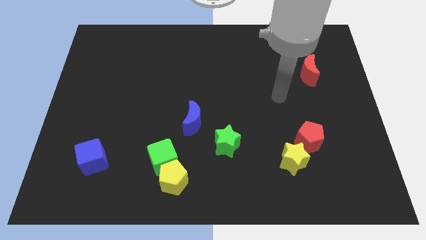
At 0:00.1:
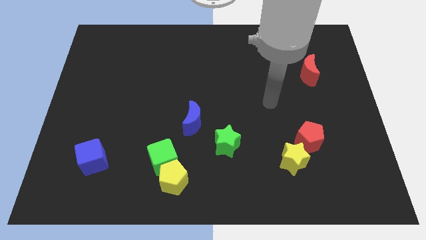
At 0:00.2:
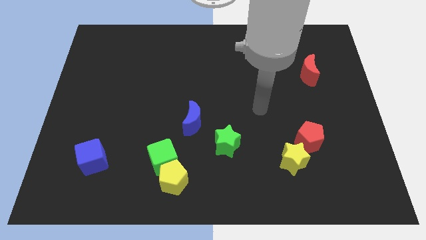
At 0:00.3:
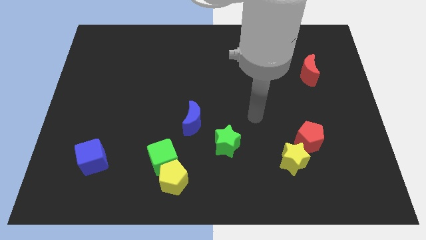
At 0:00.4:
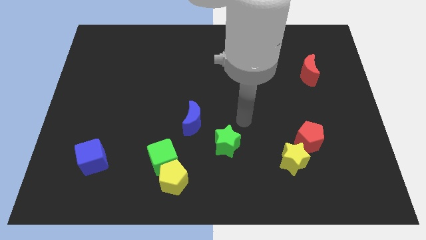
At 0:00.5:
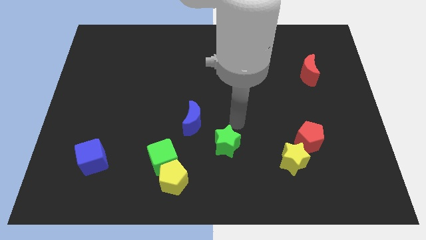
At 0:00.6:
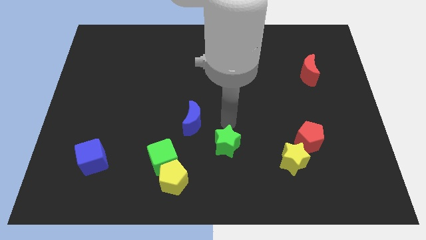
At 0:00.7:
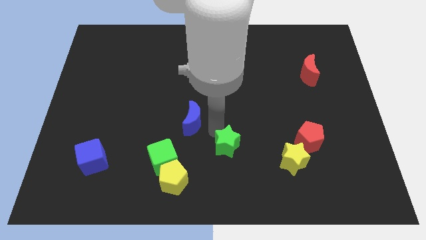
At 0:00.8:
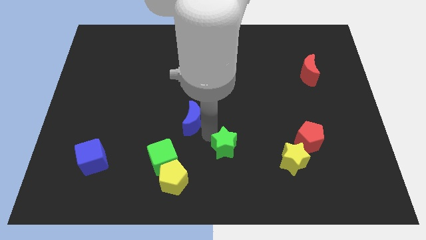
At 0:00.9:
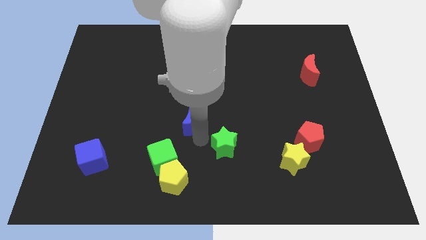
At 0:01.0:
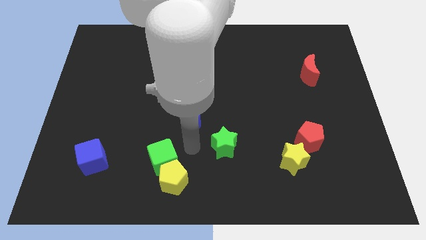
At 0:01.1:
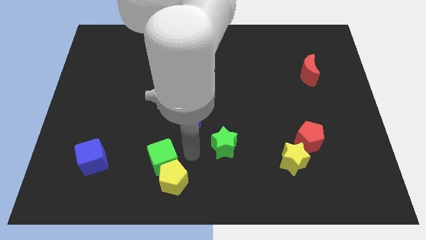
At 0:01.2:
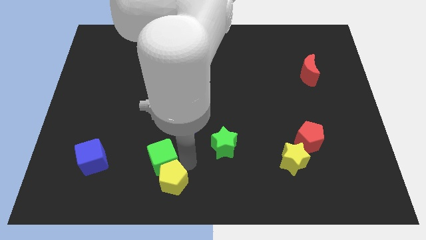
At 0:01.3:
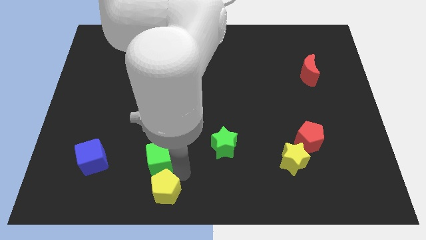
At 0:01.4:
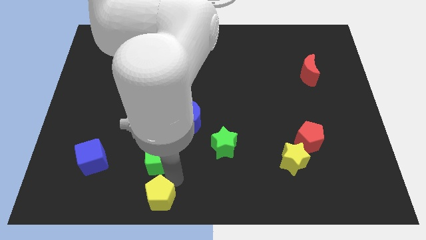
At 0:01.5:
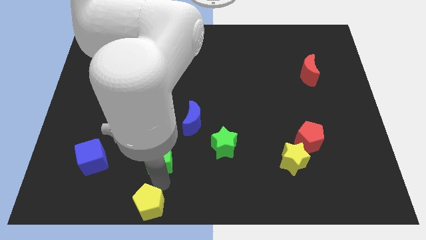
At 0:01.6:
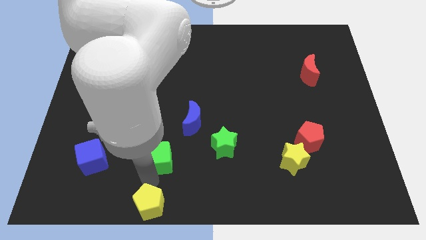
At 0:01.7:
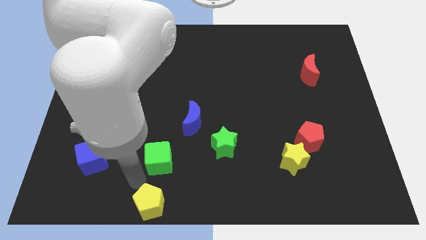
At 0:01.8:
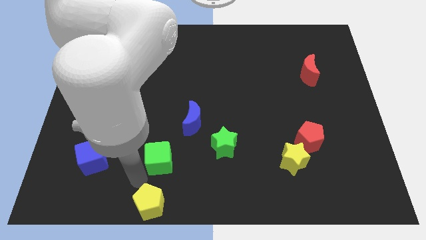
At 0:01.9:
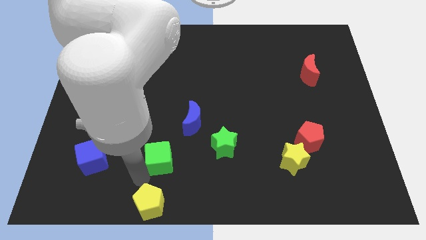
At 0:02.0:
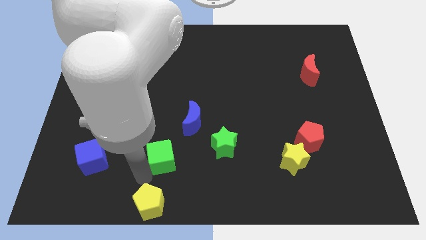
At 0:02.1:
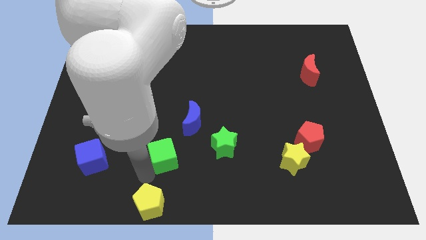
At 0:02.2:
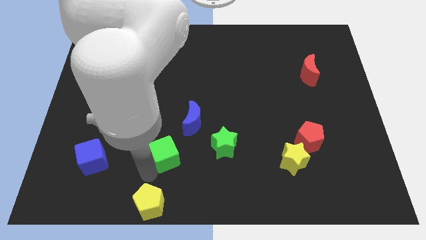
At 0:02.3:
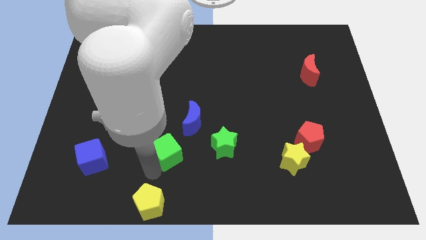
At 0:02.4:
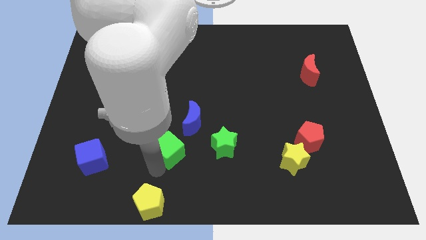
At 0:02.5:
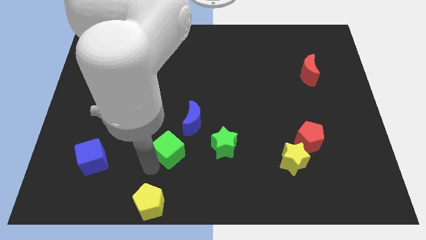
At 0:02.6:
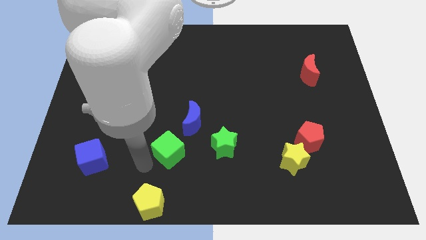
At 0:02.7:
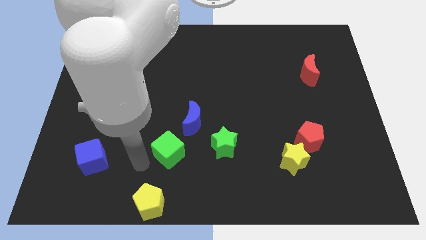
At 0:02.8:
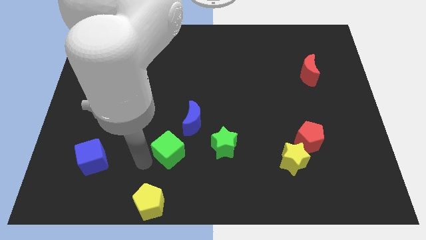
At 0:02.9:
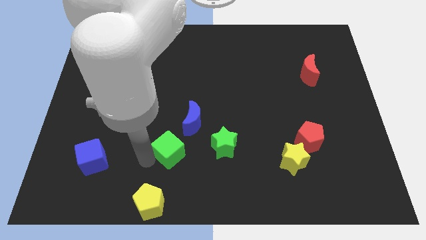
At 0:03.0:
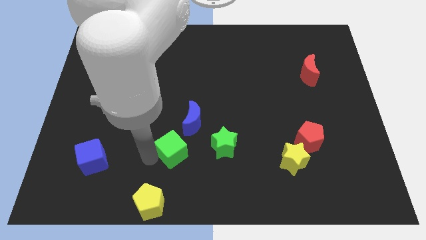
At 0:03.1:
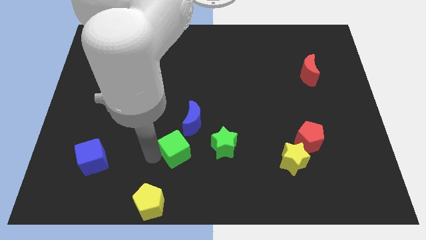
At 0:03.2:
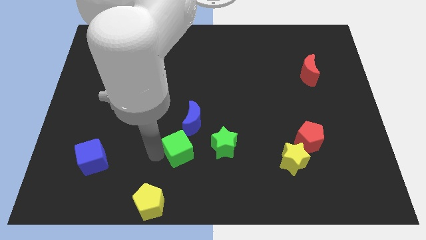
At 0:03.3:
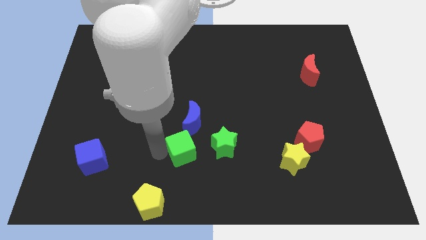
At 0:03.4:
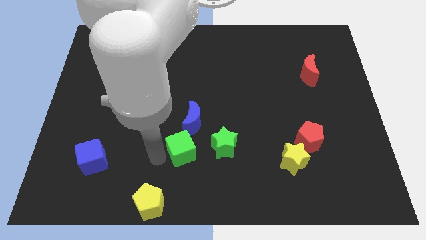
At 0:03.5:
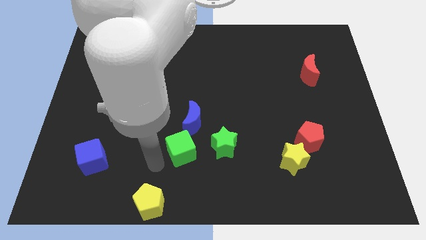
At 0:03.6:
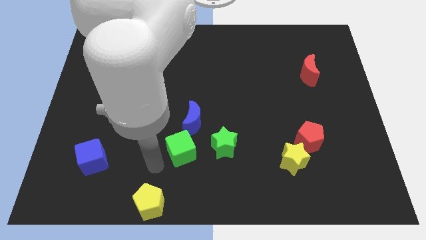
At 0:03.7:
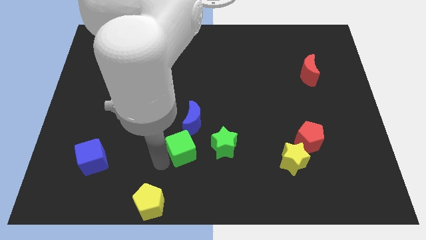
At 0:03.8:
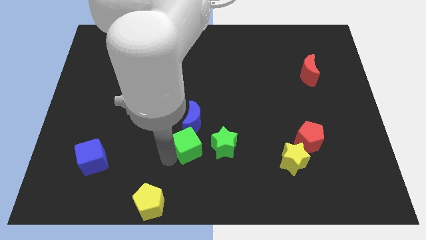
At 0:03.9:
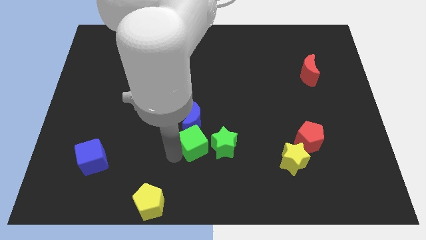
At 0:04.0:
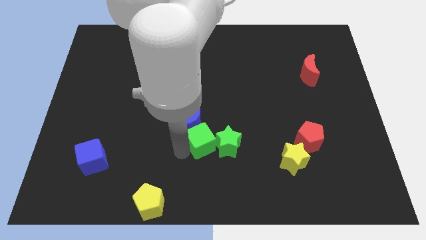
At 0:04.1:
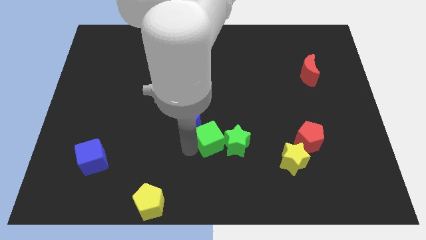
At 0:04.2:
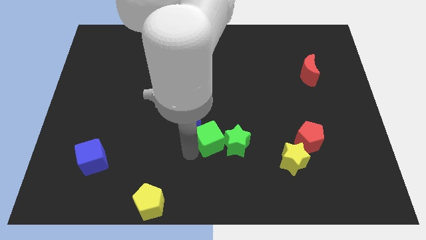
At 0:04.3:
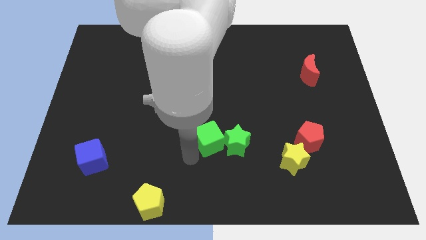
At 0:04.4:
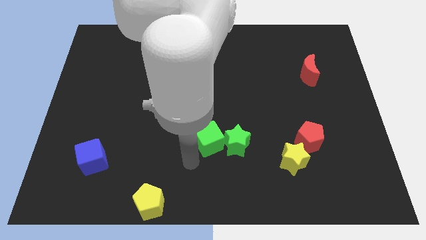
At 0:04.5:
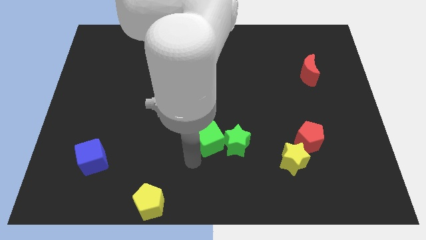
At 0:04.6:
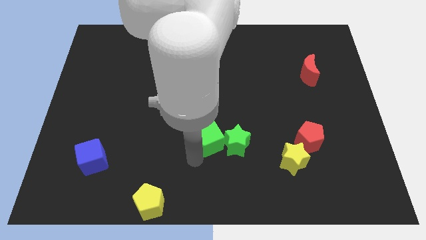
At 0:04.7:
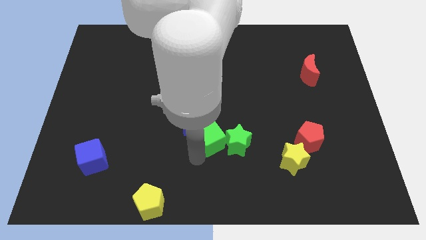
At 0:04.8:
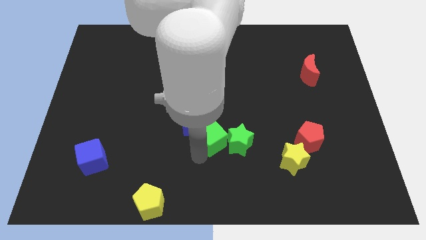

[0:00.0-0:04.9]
move the green cube just right of the blue moon

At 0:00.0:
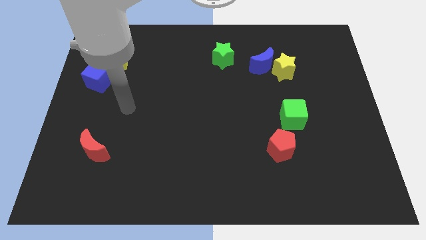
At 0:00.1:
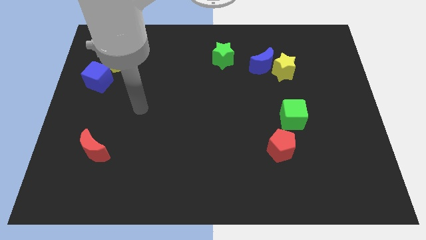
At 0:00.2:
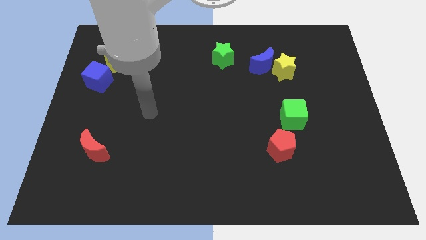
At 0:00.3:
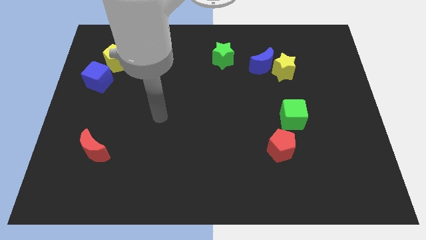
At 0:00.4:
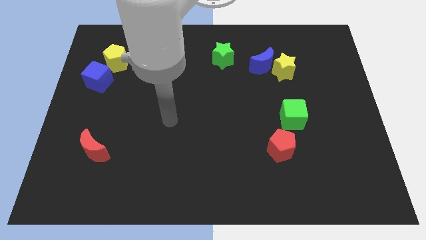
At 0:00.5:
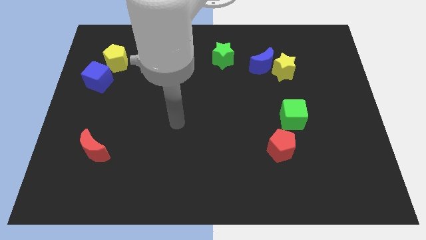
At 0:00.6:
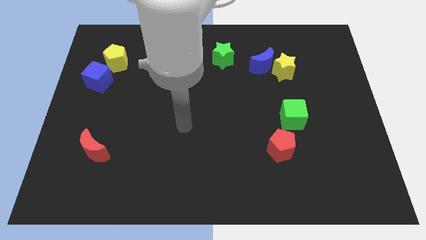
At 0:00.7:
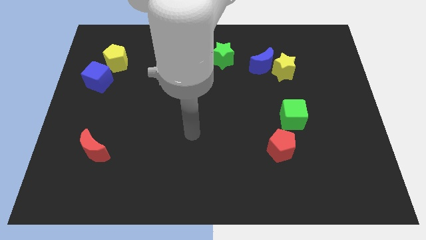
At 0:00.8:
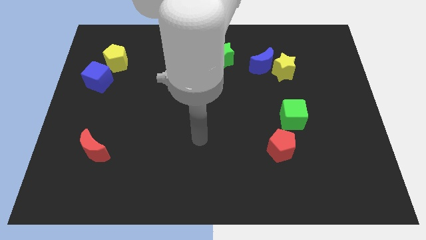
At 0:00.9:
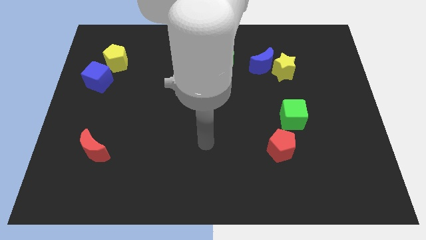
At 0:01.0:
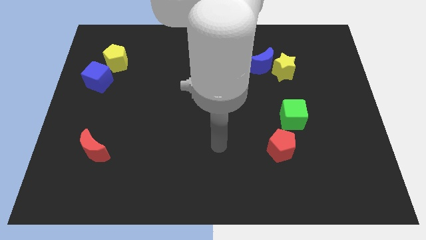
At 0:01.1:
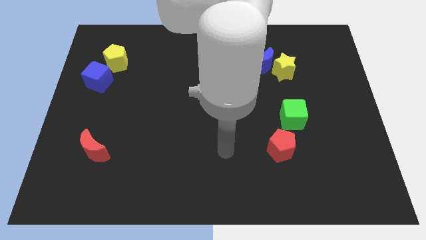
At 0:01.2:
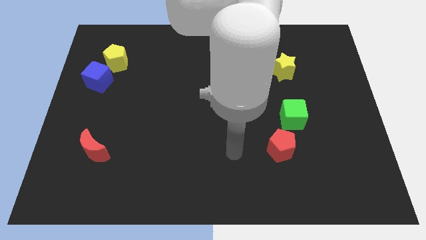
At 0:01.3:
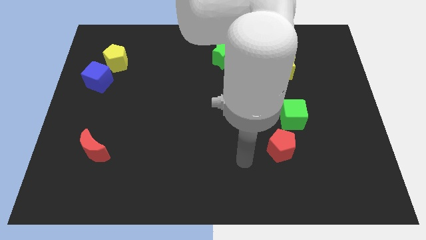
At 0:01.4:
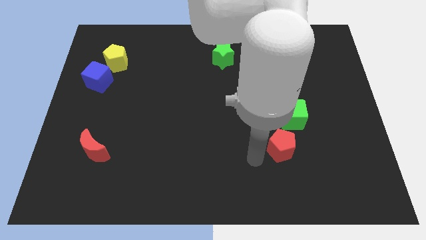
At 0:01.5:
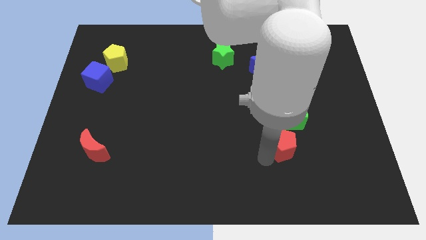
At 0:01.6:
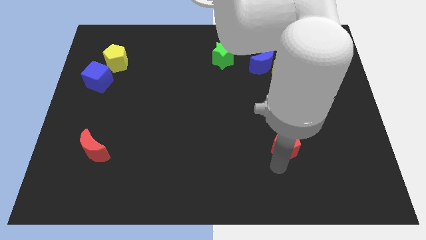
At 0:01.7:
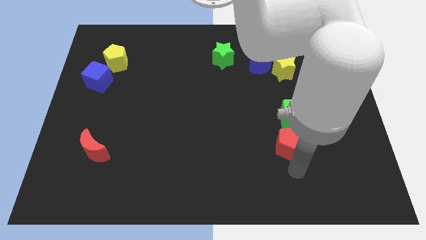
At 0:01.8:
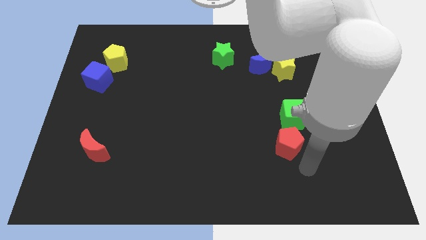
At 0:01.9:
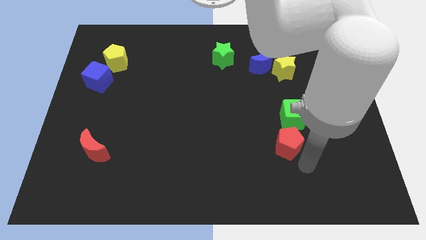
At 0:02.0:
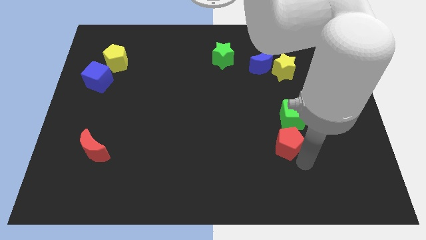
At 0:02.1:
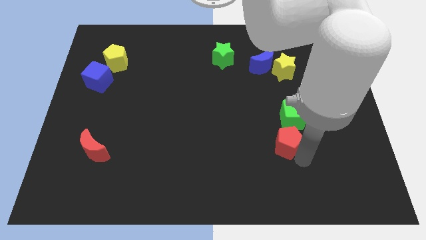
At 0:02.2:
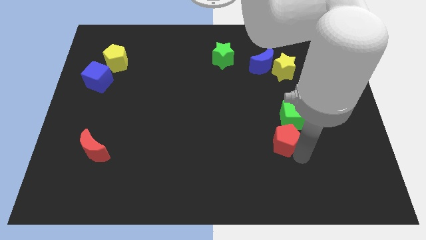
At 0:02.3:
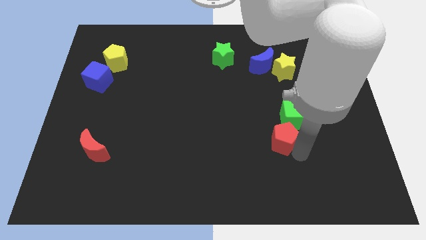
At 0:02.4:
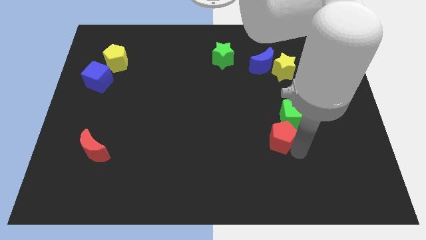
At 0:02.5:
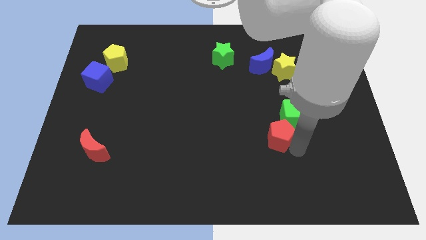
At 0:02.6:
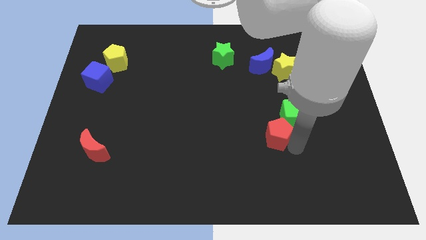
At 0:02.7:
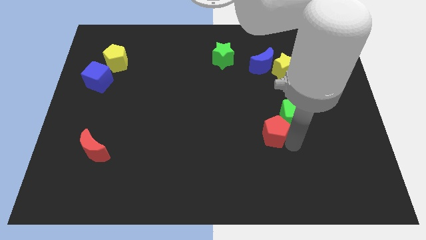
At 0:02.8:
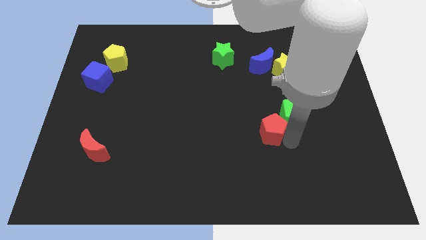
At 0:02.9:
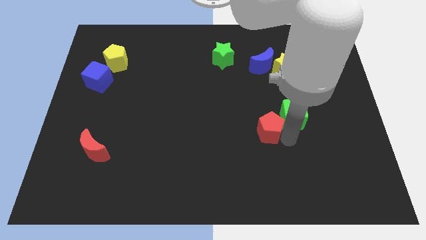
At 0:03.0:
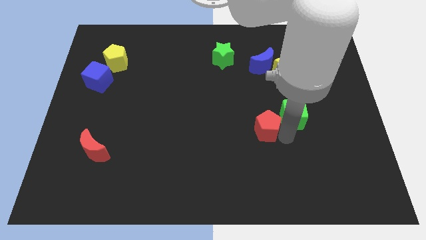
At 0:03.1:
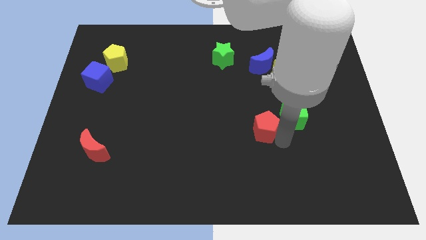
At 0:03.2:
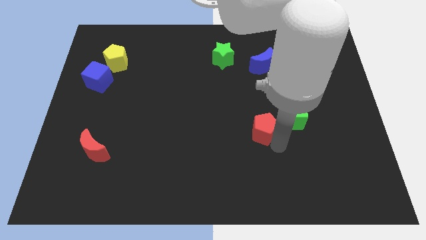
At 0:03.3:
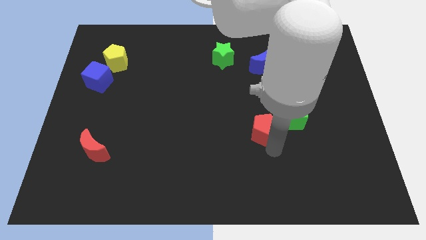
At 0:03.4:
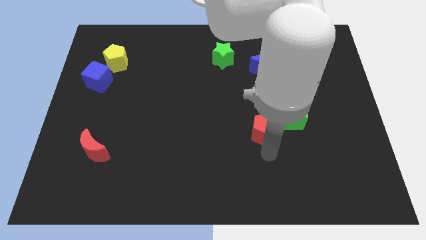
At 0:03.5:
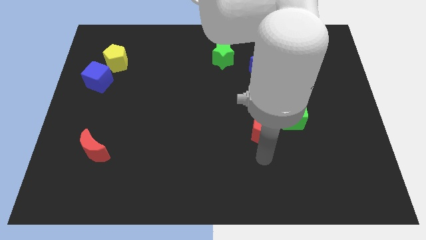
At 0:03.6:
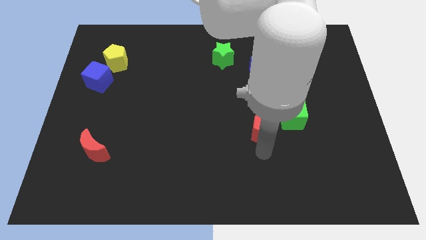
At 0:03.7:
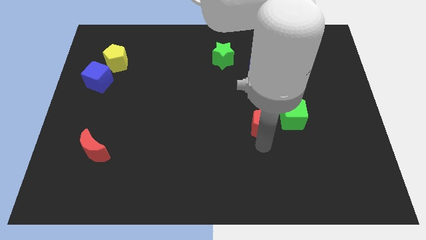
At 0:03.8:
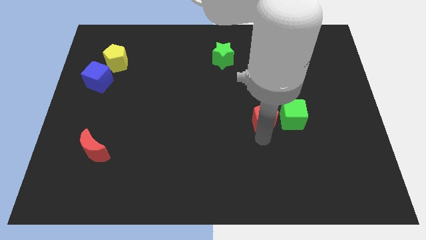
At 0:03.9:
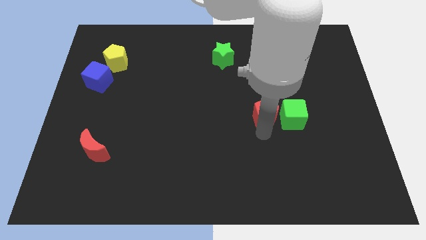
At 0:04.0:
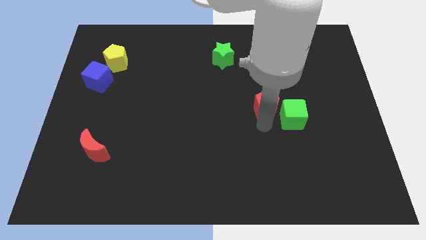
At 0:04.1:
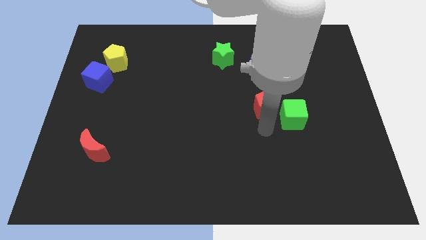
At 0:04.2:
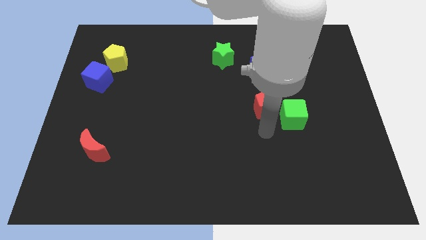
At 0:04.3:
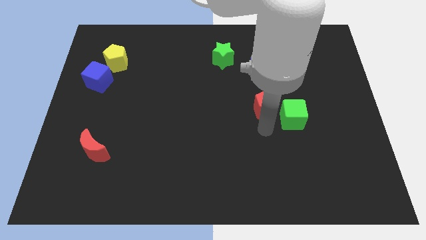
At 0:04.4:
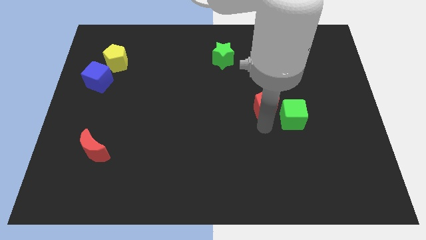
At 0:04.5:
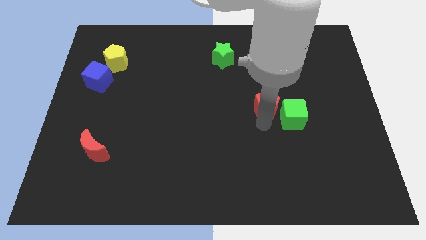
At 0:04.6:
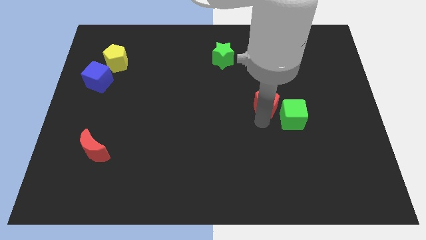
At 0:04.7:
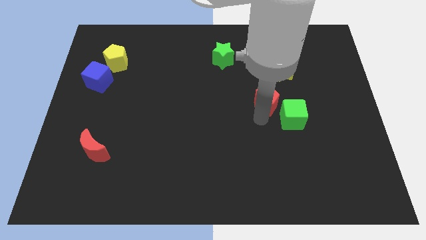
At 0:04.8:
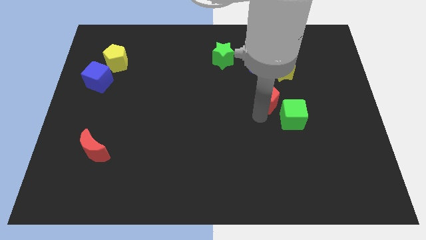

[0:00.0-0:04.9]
slide the red pentagon to the bottom left side of the yellow star
